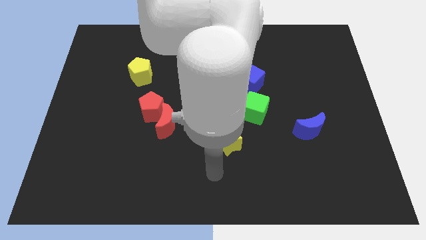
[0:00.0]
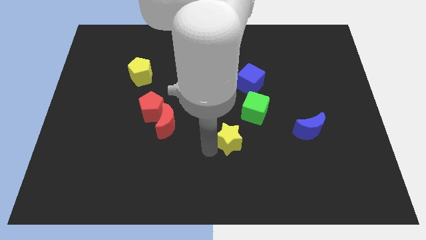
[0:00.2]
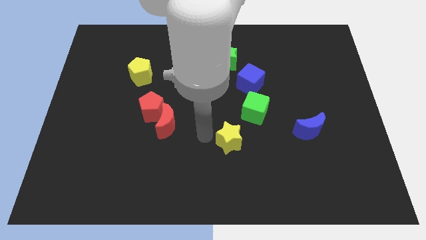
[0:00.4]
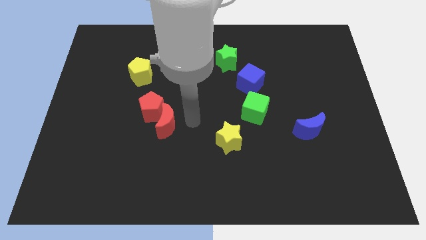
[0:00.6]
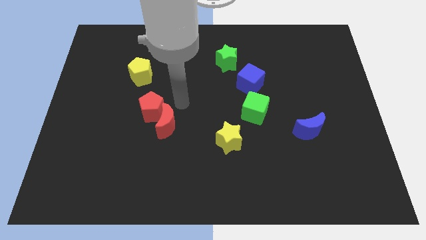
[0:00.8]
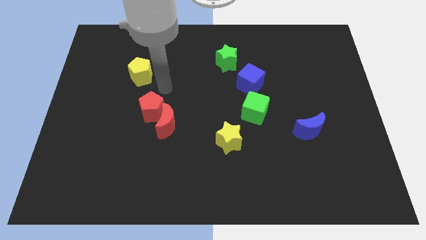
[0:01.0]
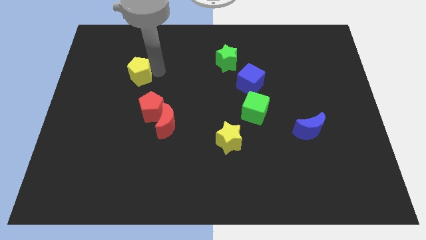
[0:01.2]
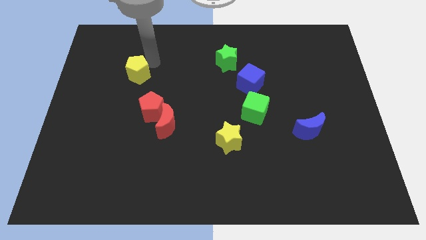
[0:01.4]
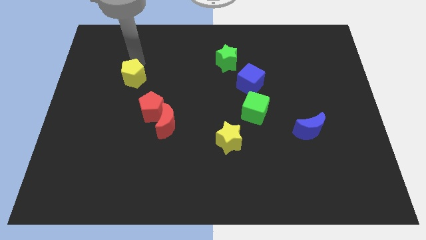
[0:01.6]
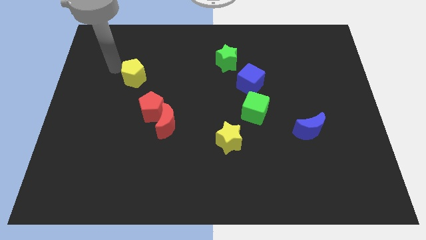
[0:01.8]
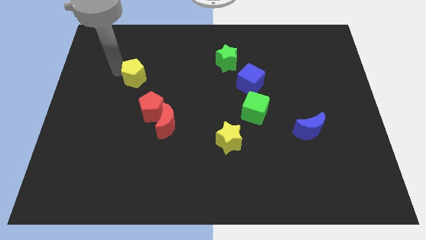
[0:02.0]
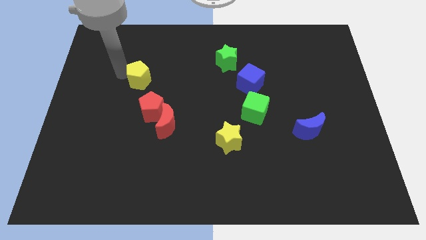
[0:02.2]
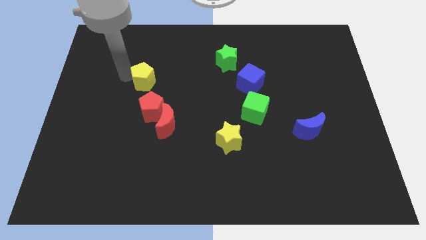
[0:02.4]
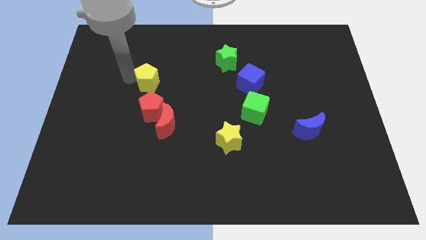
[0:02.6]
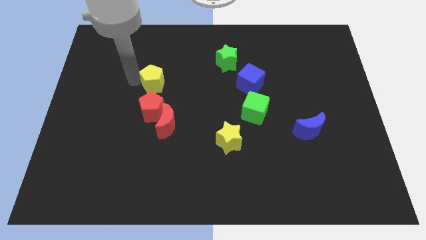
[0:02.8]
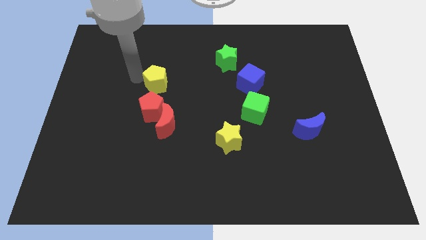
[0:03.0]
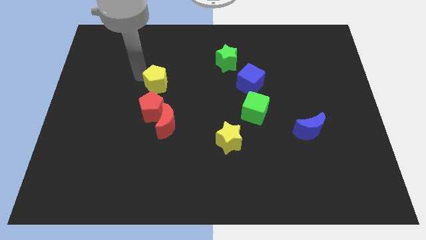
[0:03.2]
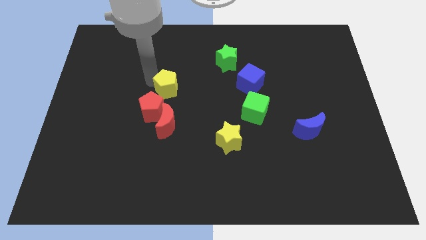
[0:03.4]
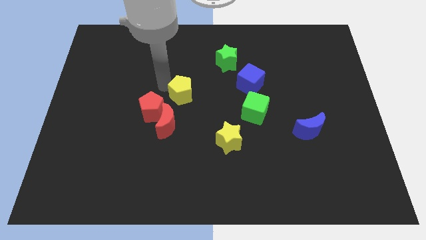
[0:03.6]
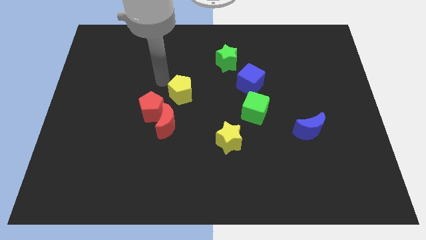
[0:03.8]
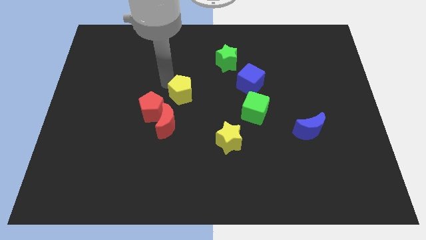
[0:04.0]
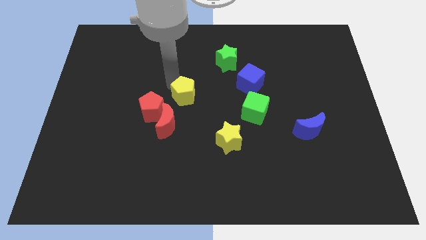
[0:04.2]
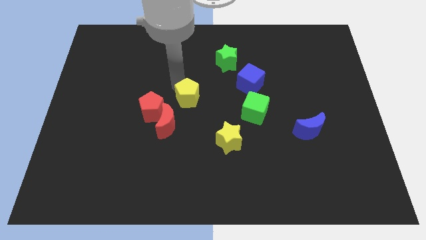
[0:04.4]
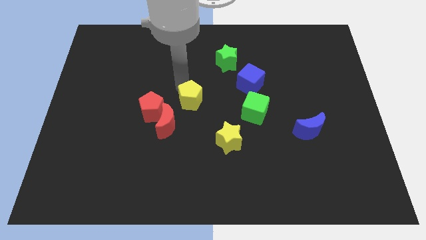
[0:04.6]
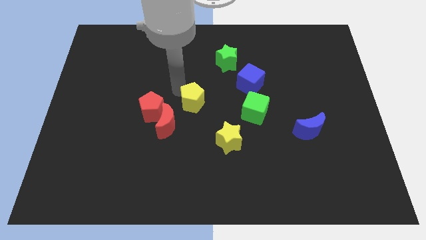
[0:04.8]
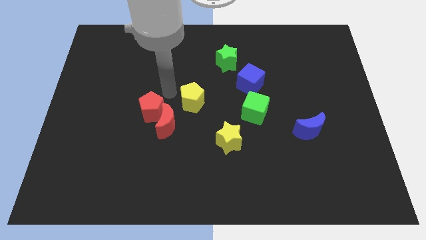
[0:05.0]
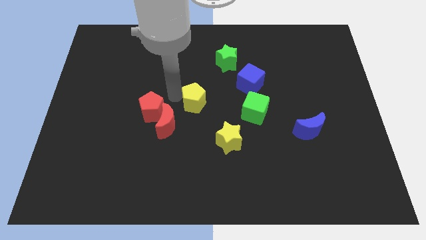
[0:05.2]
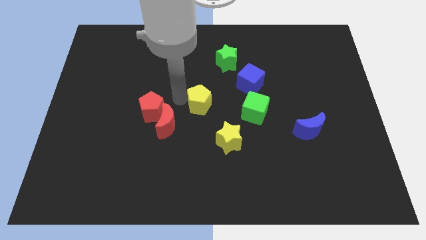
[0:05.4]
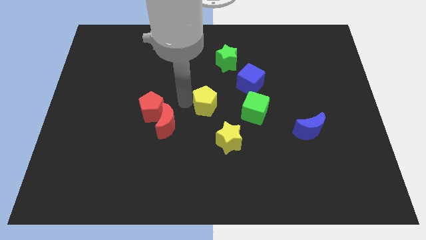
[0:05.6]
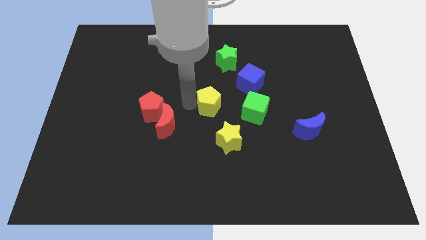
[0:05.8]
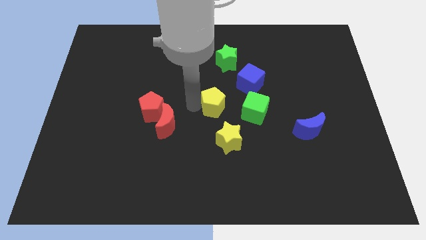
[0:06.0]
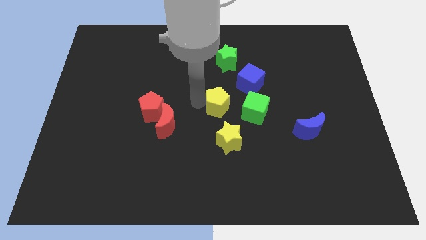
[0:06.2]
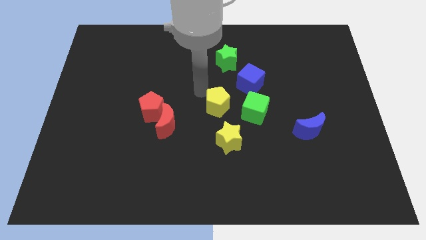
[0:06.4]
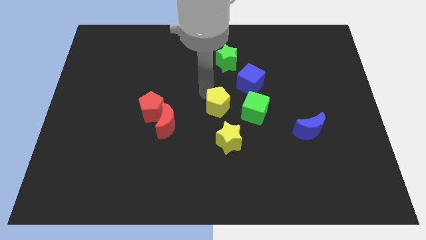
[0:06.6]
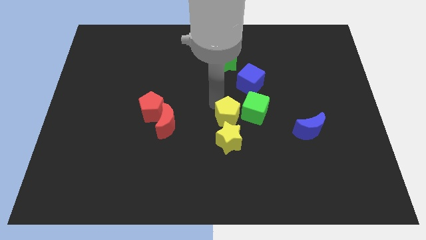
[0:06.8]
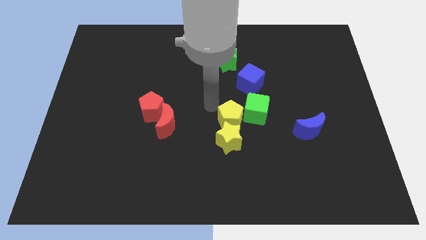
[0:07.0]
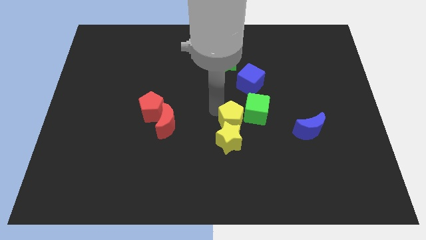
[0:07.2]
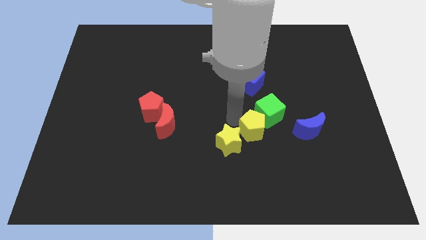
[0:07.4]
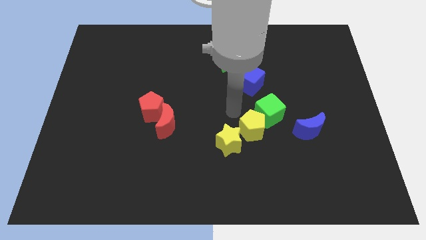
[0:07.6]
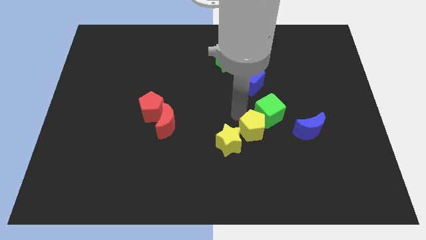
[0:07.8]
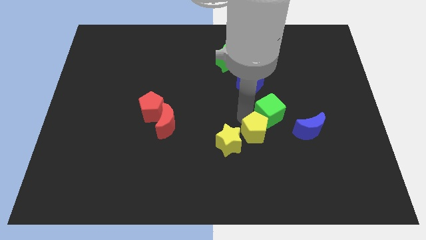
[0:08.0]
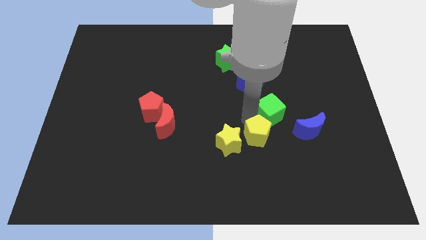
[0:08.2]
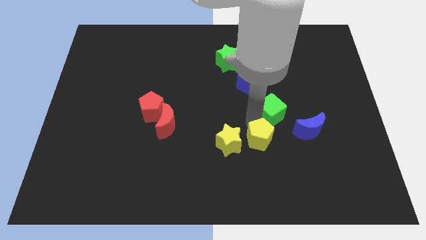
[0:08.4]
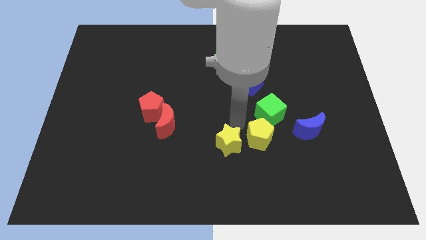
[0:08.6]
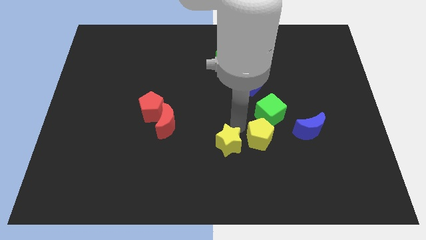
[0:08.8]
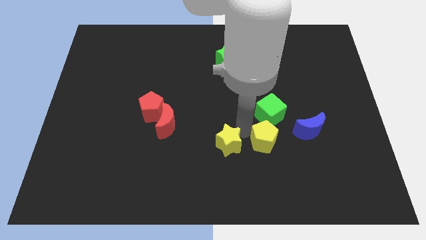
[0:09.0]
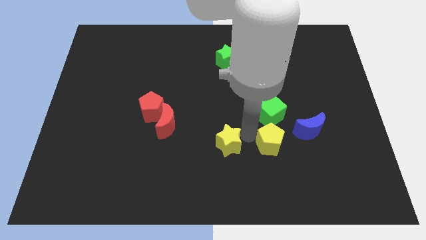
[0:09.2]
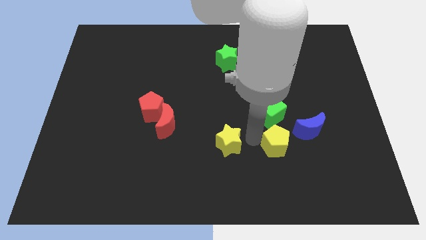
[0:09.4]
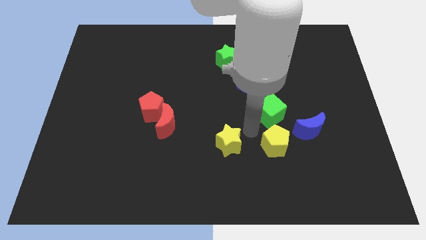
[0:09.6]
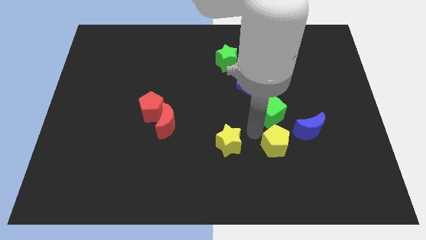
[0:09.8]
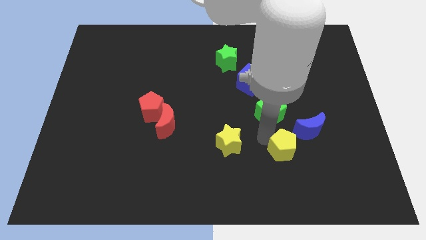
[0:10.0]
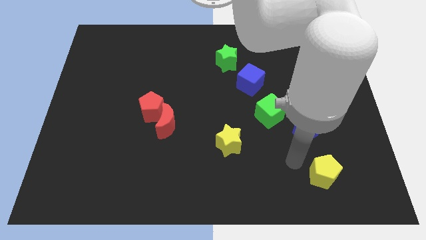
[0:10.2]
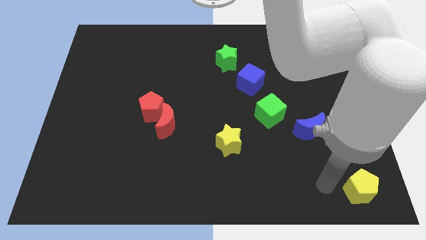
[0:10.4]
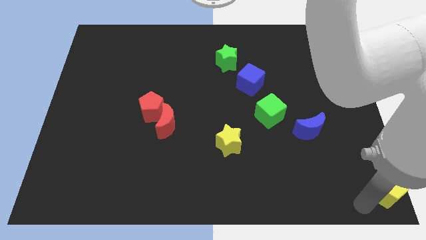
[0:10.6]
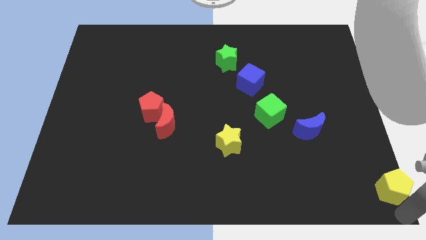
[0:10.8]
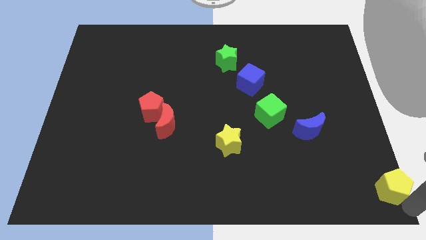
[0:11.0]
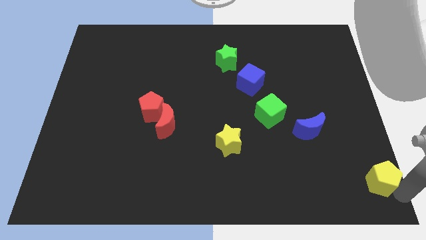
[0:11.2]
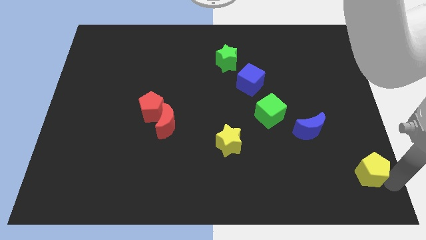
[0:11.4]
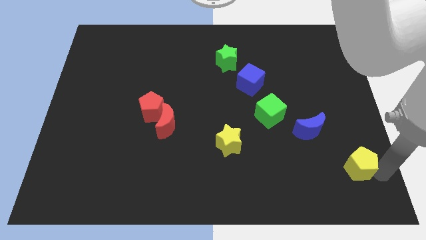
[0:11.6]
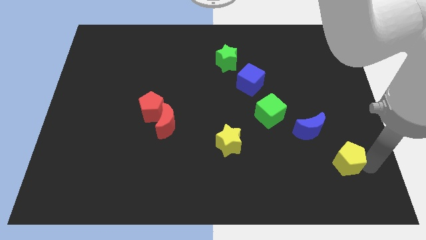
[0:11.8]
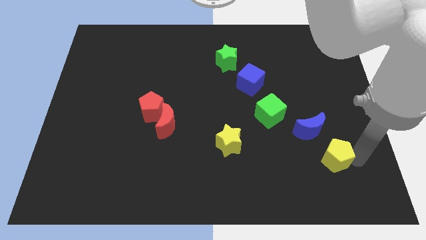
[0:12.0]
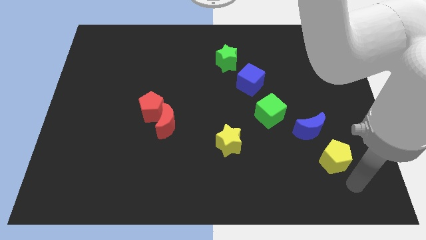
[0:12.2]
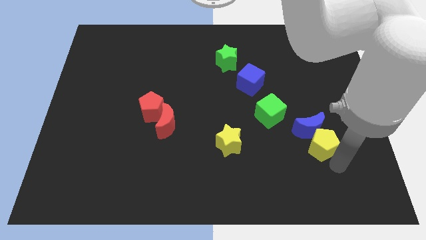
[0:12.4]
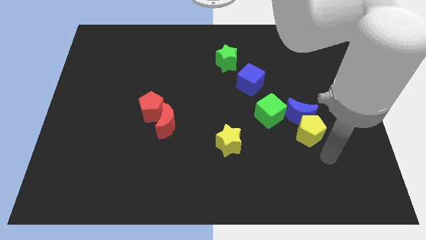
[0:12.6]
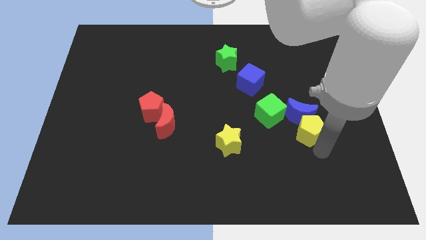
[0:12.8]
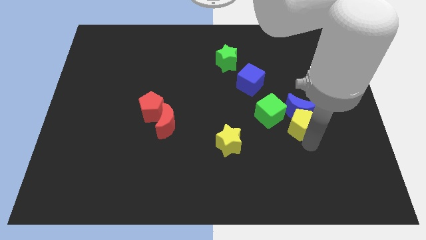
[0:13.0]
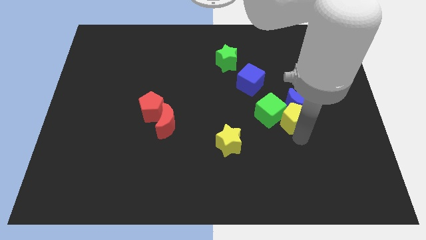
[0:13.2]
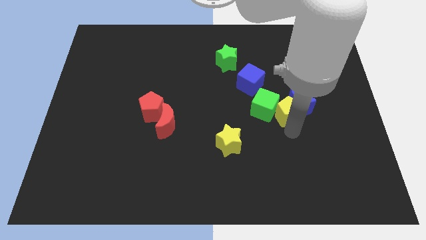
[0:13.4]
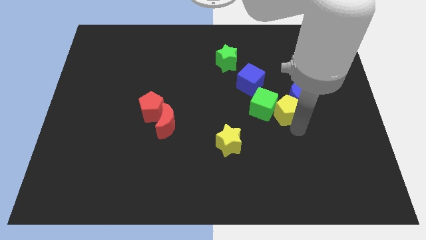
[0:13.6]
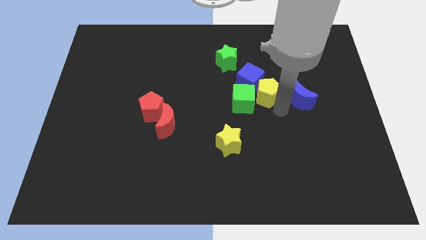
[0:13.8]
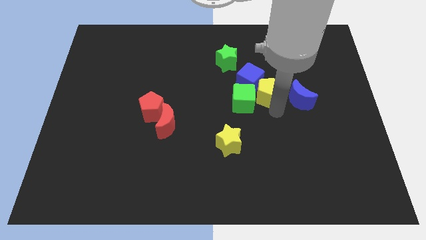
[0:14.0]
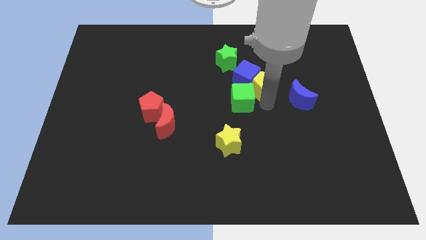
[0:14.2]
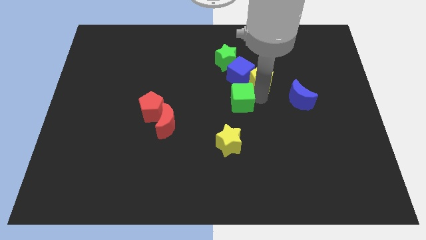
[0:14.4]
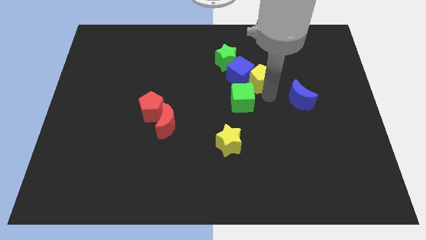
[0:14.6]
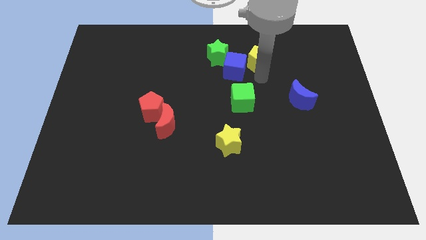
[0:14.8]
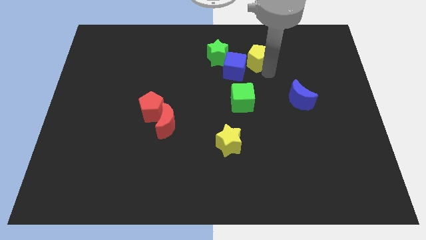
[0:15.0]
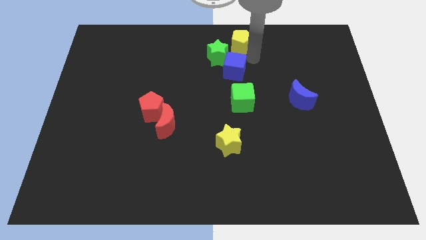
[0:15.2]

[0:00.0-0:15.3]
slide the yellow pentagon to the towards your base
